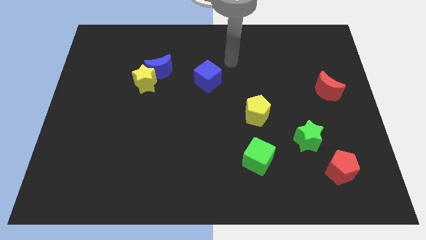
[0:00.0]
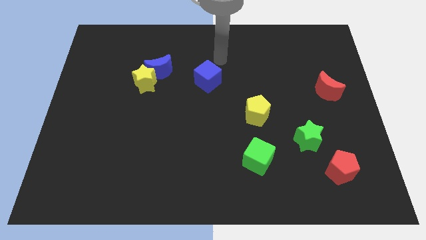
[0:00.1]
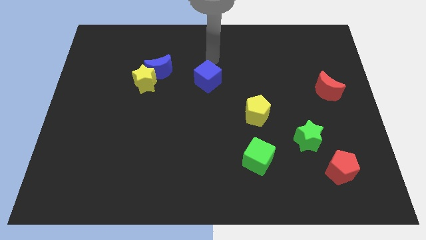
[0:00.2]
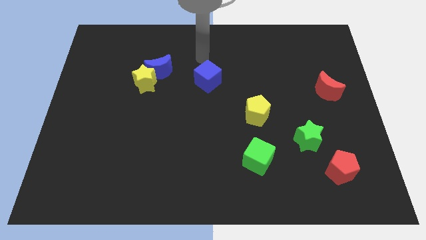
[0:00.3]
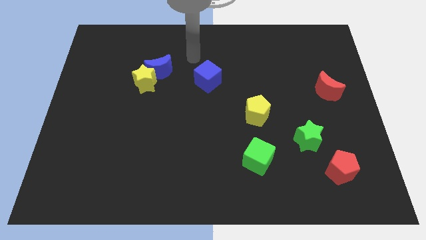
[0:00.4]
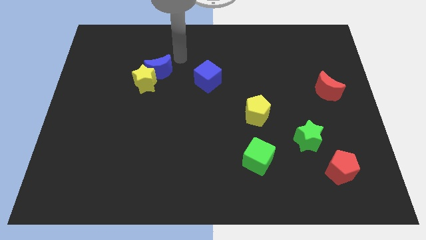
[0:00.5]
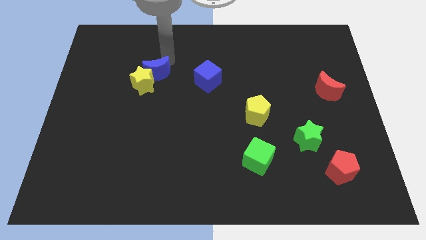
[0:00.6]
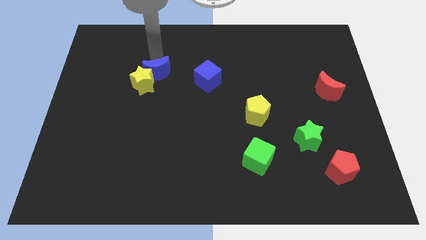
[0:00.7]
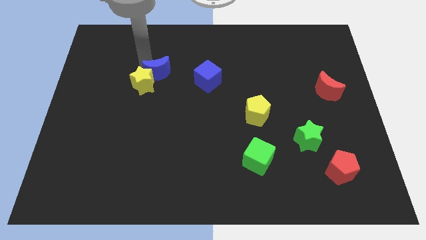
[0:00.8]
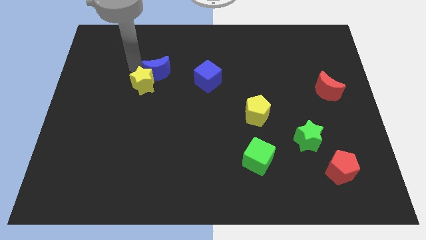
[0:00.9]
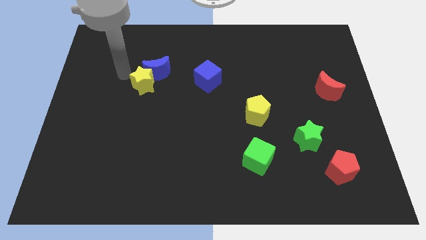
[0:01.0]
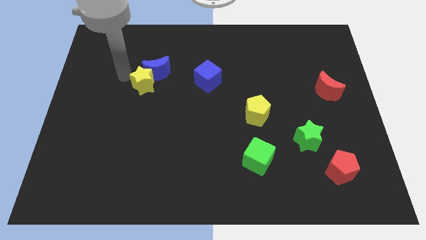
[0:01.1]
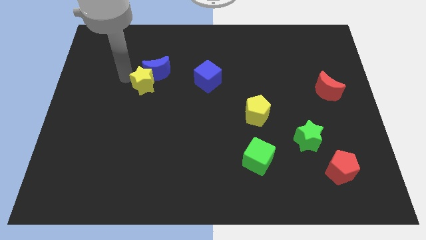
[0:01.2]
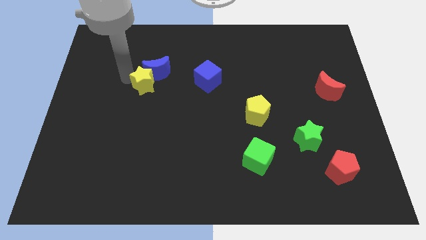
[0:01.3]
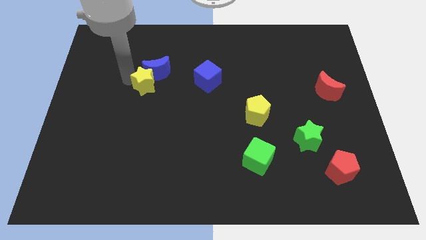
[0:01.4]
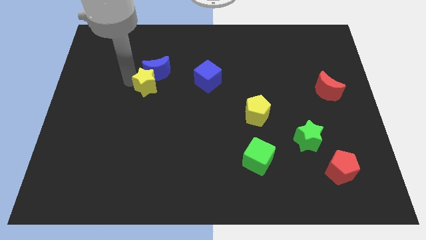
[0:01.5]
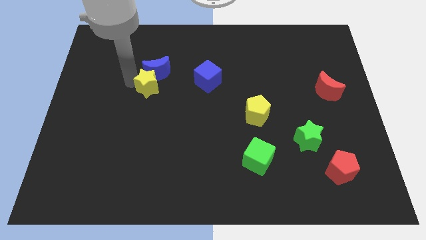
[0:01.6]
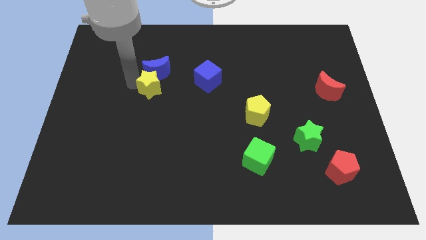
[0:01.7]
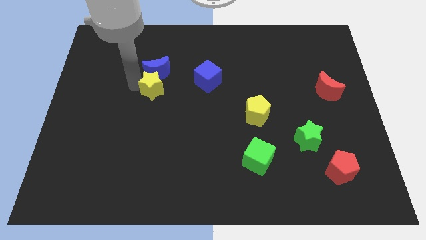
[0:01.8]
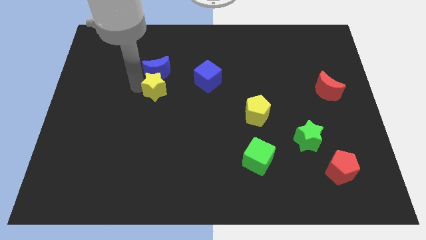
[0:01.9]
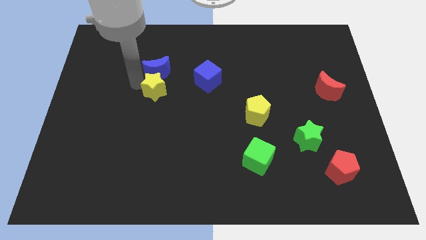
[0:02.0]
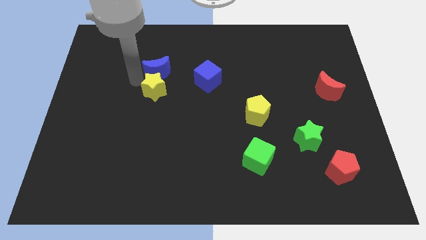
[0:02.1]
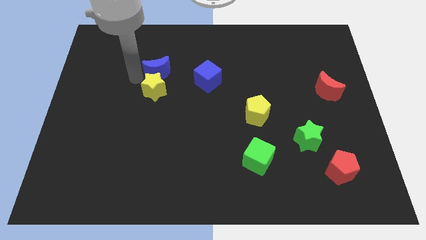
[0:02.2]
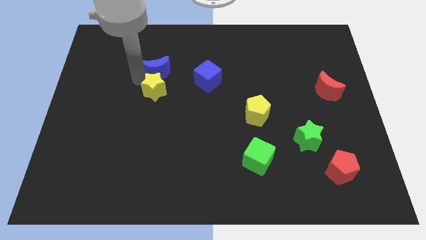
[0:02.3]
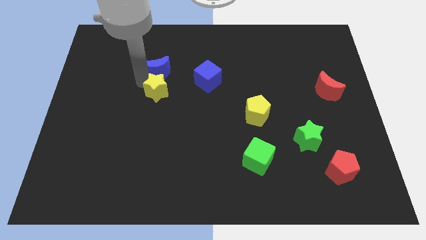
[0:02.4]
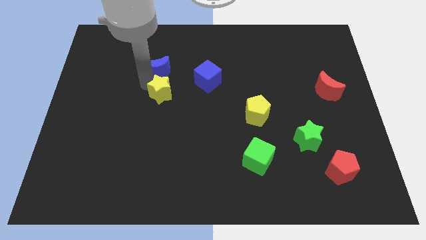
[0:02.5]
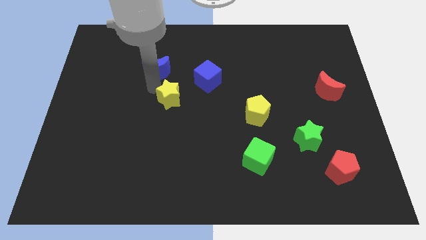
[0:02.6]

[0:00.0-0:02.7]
slightly push the yellow star downwards and to the right

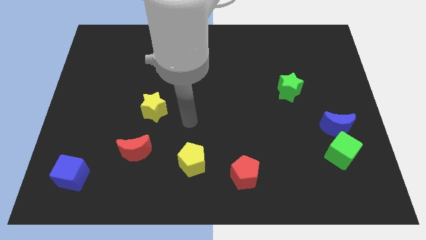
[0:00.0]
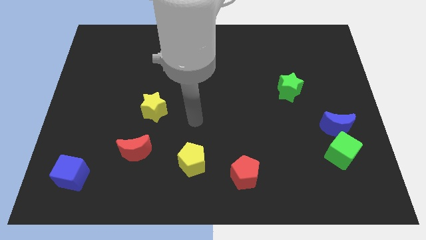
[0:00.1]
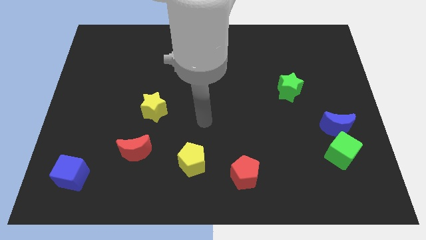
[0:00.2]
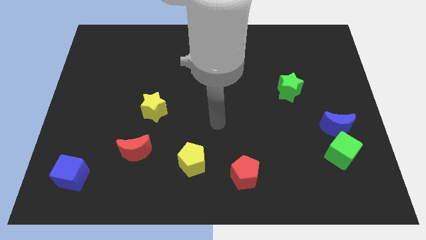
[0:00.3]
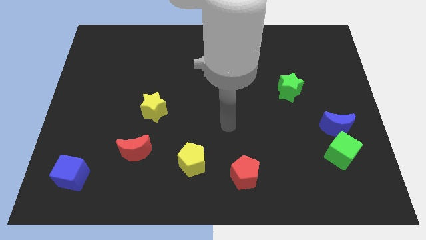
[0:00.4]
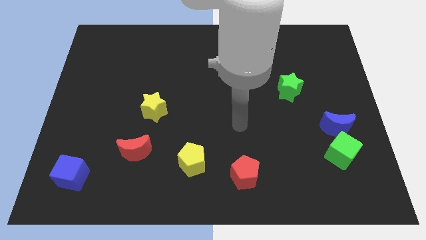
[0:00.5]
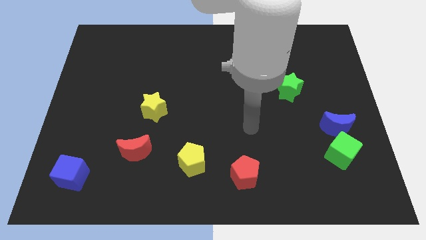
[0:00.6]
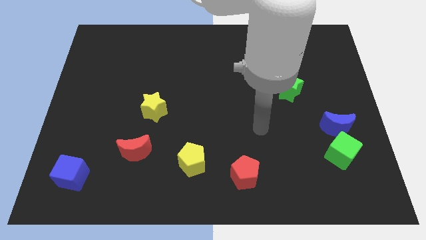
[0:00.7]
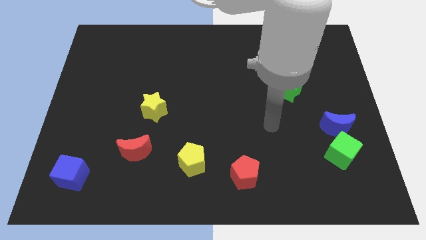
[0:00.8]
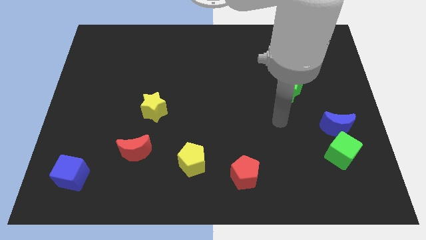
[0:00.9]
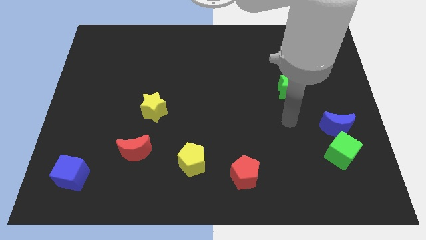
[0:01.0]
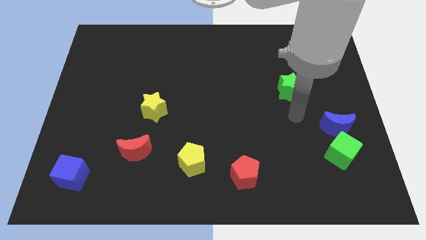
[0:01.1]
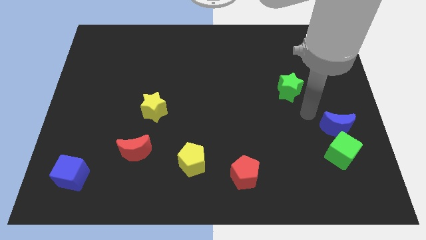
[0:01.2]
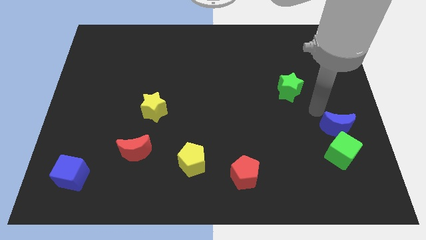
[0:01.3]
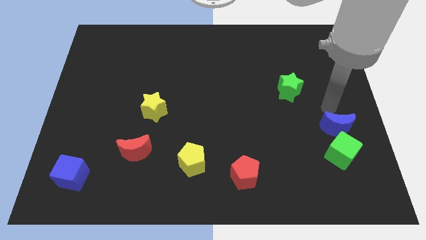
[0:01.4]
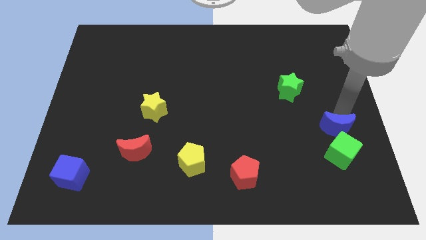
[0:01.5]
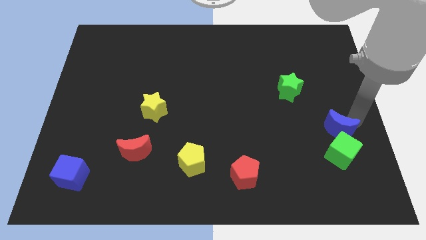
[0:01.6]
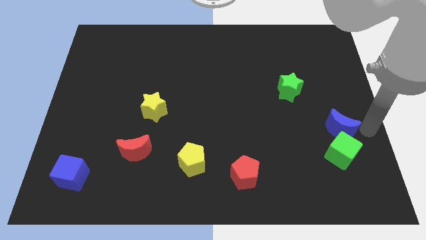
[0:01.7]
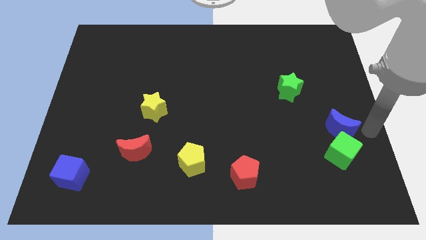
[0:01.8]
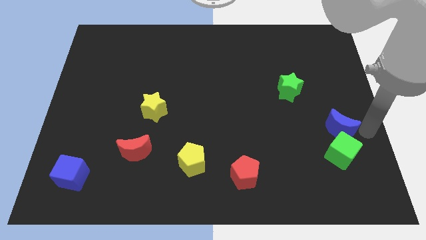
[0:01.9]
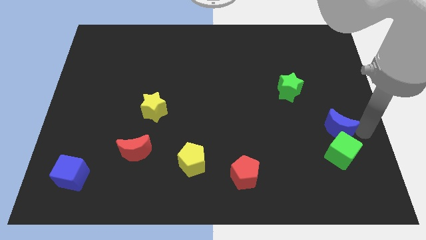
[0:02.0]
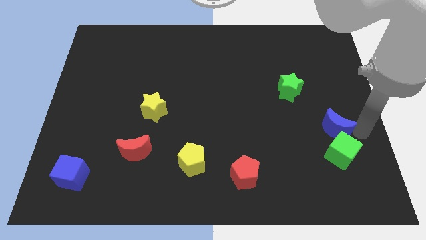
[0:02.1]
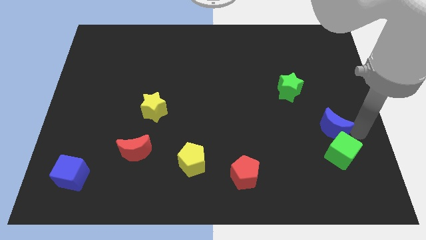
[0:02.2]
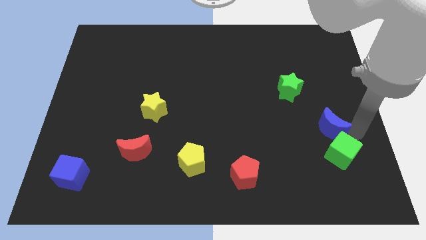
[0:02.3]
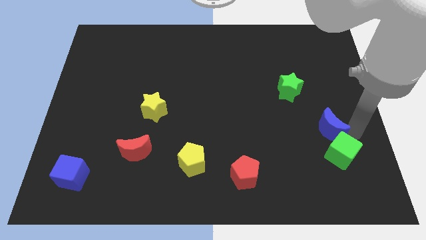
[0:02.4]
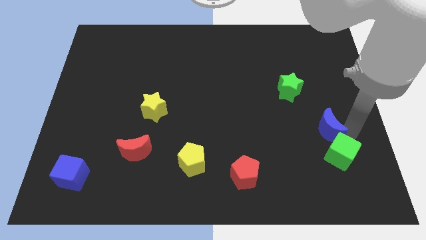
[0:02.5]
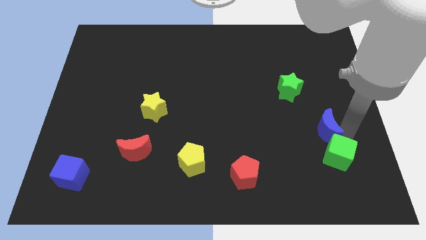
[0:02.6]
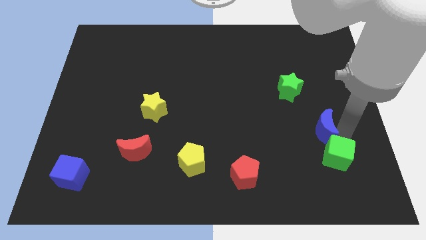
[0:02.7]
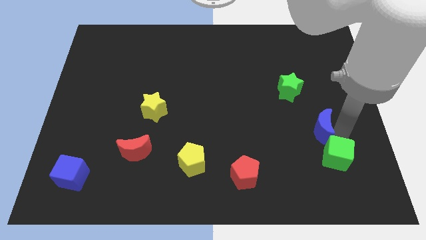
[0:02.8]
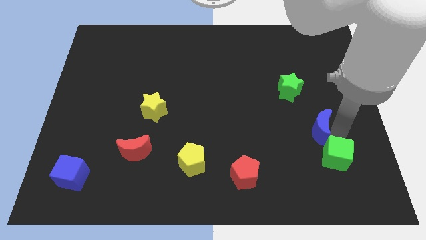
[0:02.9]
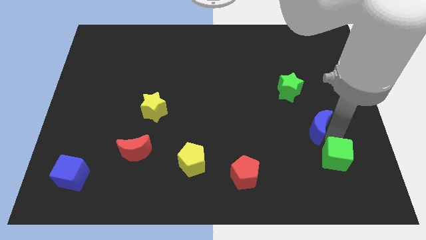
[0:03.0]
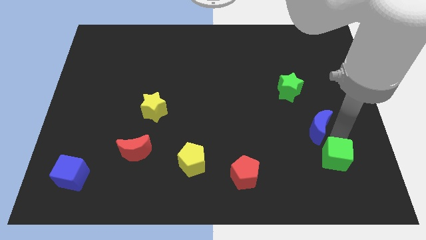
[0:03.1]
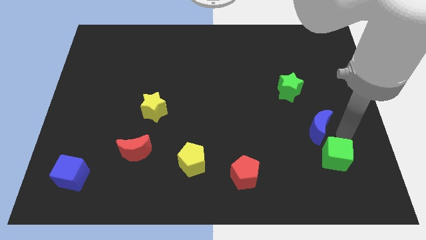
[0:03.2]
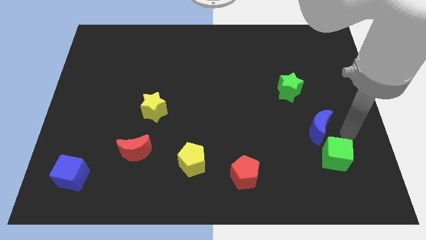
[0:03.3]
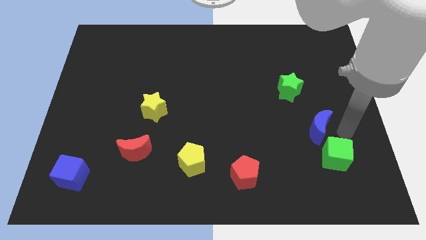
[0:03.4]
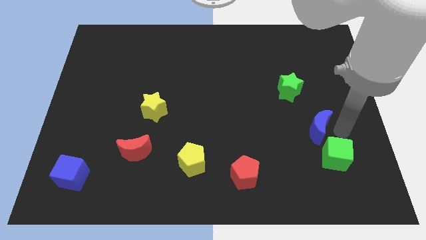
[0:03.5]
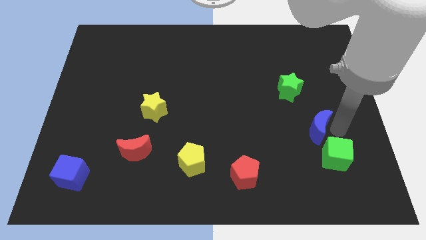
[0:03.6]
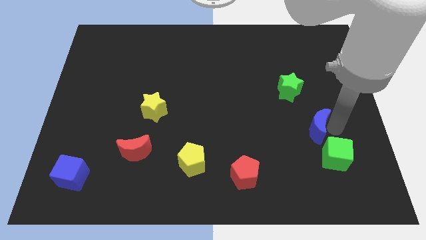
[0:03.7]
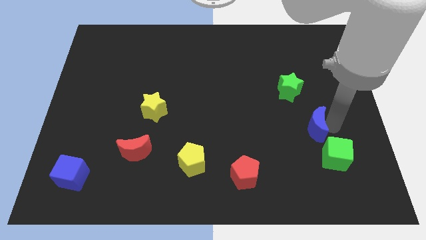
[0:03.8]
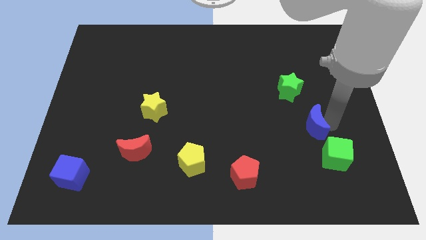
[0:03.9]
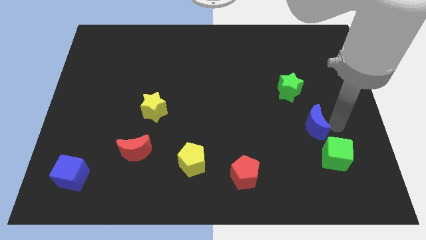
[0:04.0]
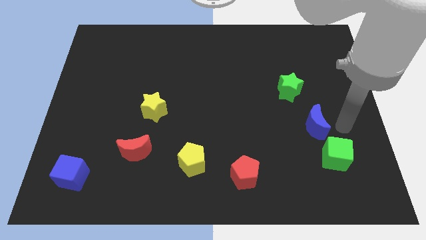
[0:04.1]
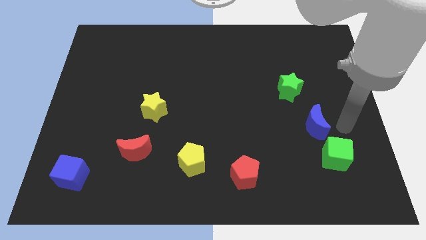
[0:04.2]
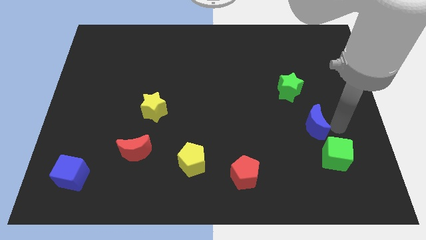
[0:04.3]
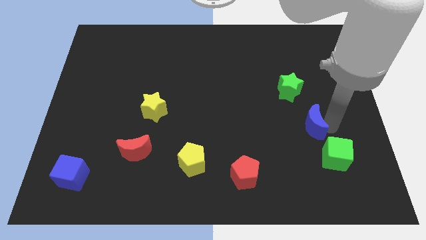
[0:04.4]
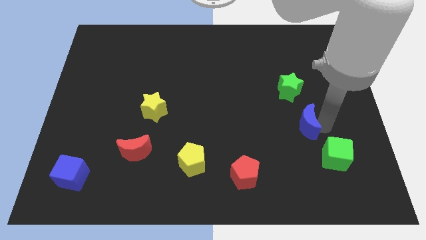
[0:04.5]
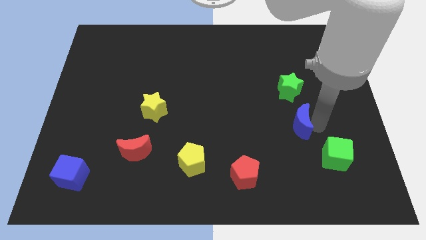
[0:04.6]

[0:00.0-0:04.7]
slide the blue moon left slightly

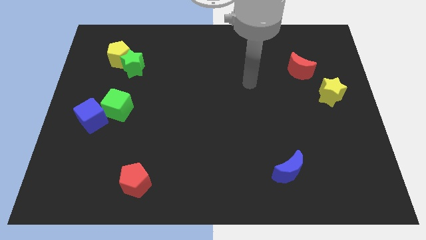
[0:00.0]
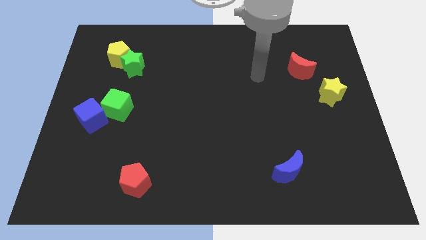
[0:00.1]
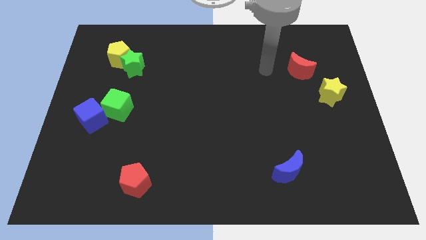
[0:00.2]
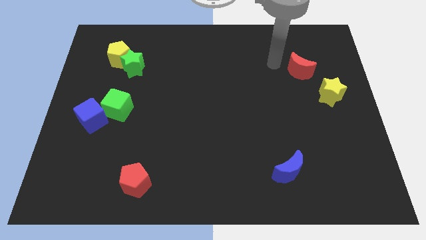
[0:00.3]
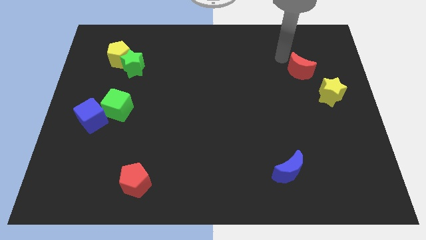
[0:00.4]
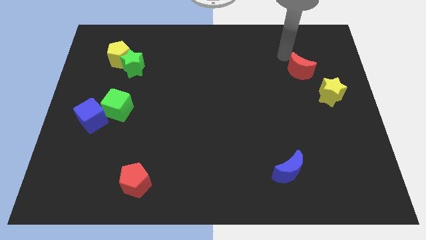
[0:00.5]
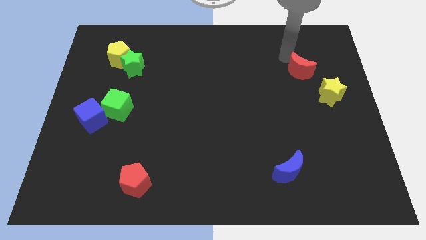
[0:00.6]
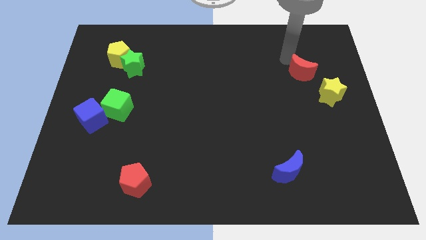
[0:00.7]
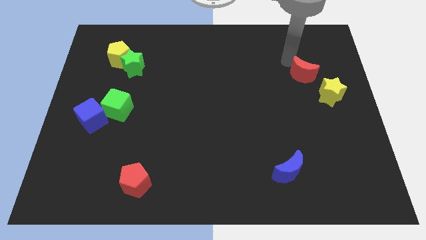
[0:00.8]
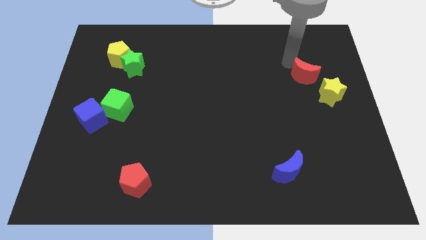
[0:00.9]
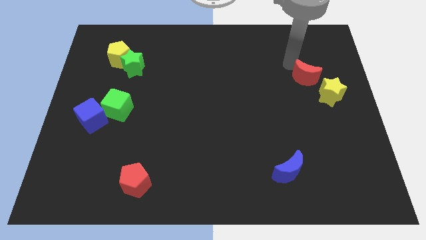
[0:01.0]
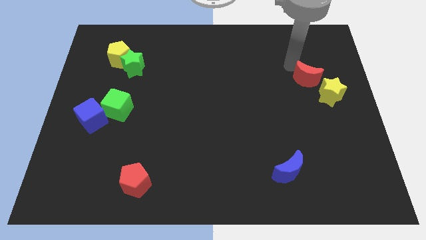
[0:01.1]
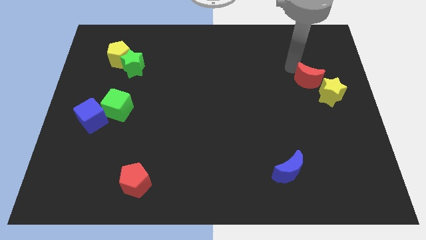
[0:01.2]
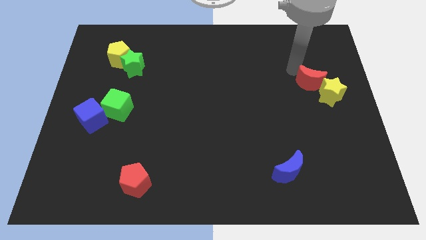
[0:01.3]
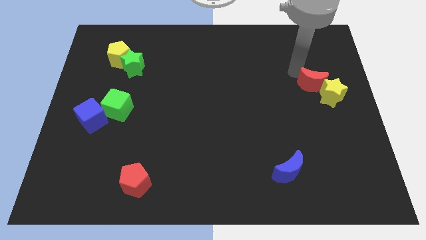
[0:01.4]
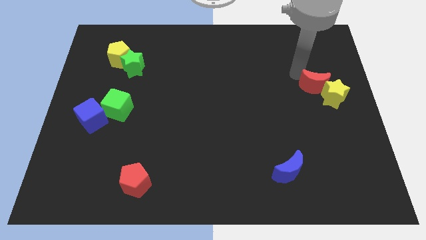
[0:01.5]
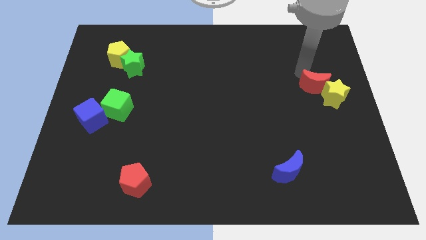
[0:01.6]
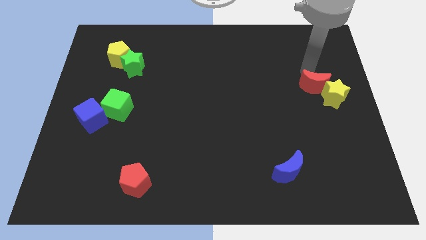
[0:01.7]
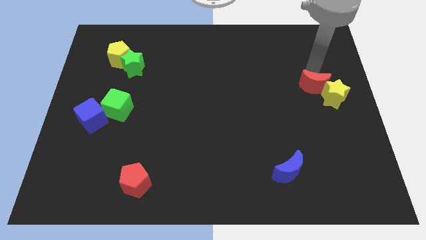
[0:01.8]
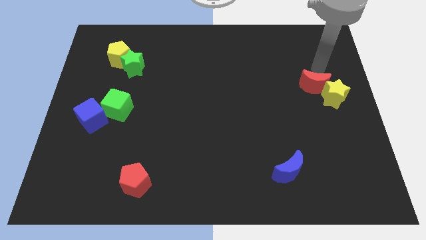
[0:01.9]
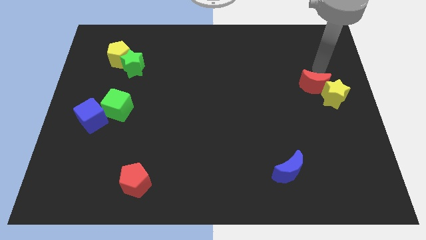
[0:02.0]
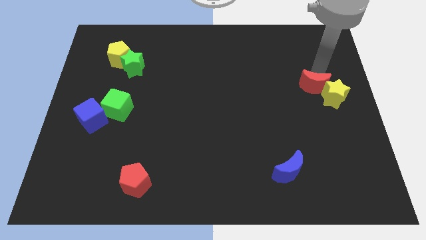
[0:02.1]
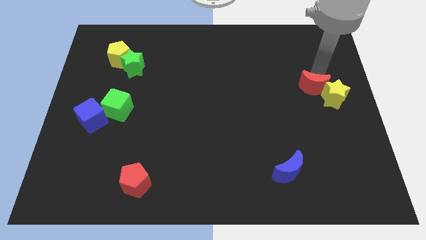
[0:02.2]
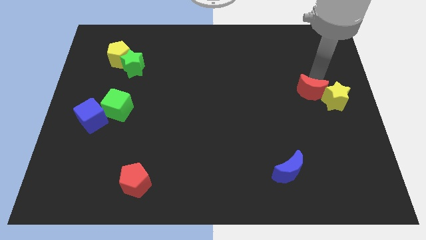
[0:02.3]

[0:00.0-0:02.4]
slightly slide the red moon downwards
